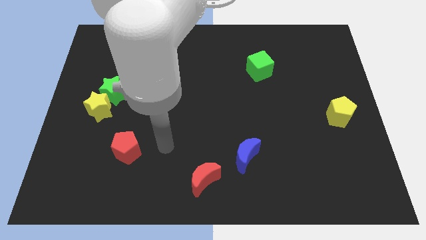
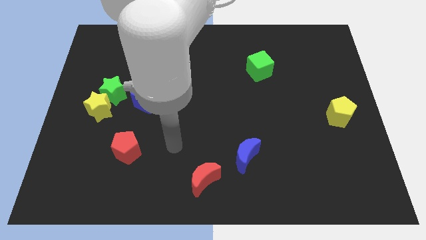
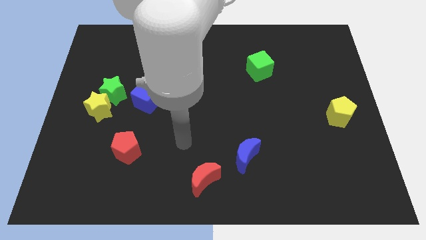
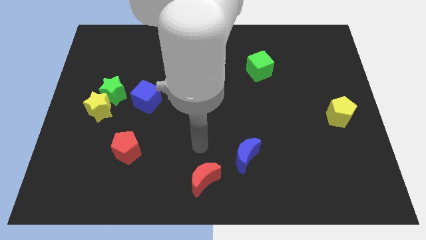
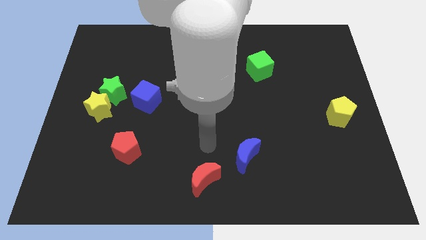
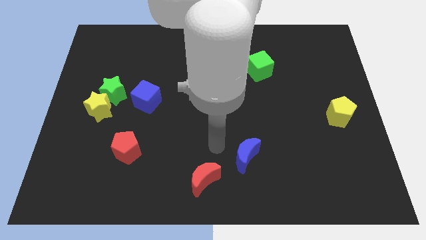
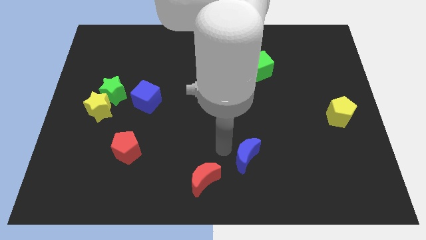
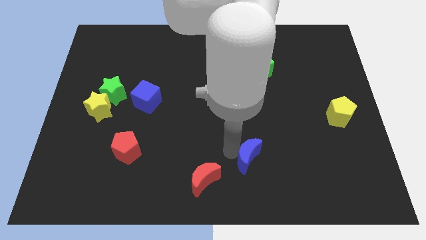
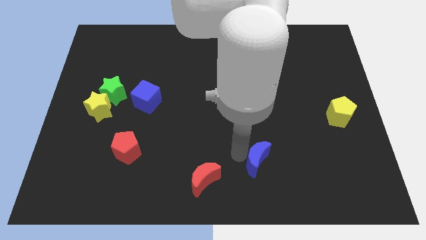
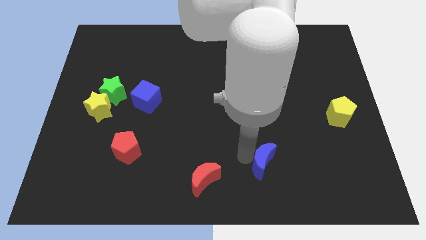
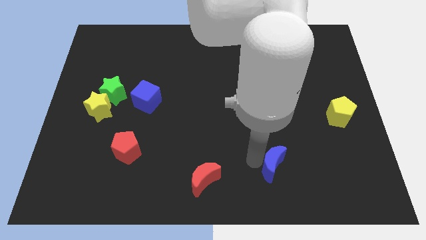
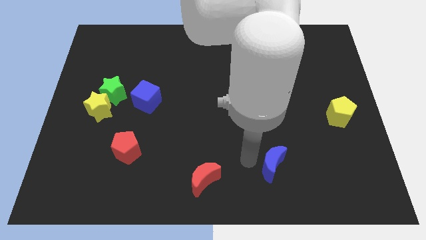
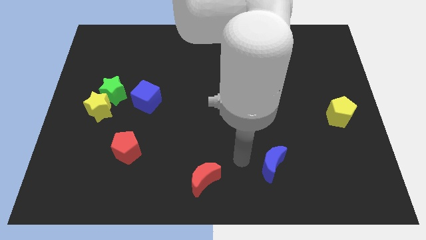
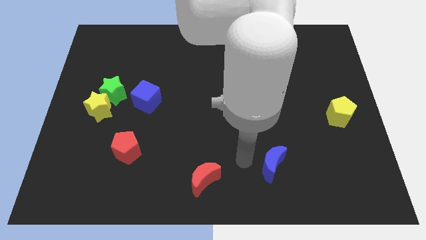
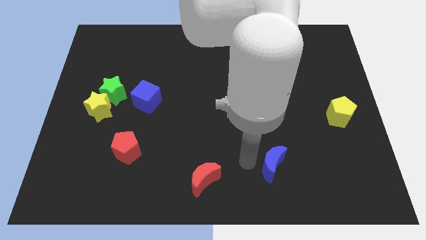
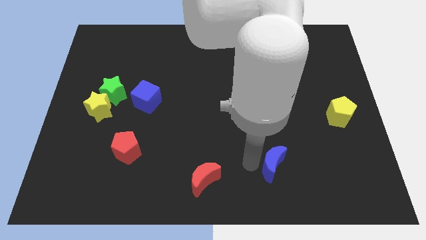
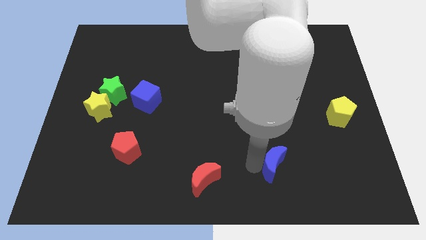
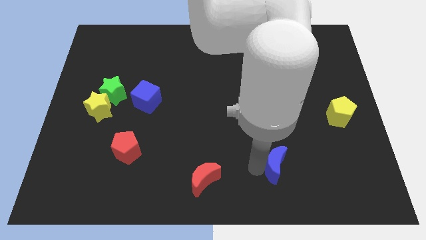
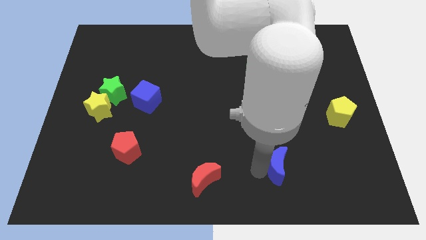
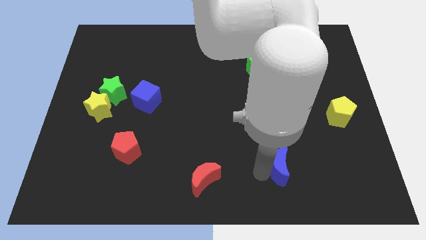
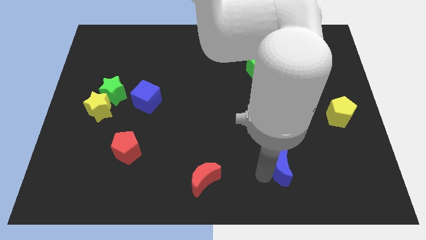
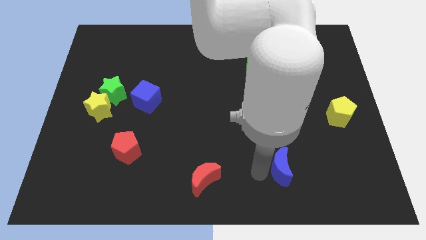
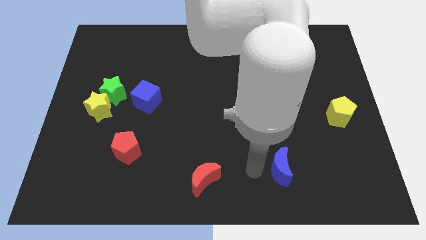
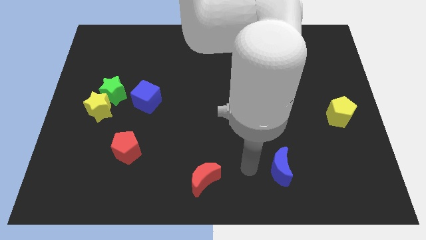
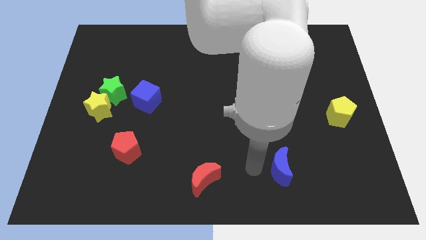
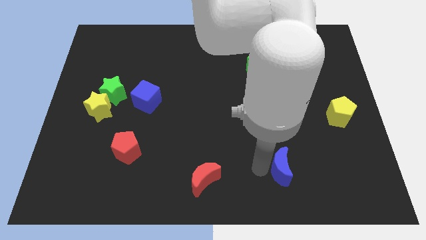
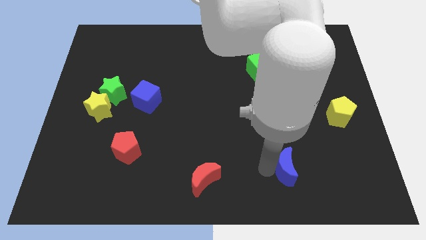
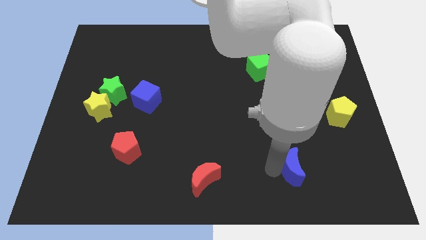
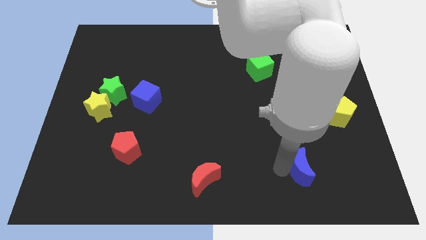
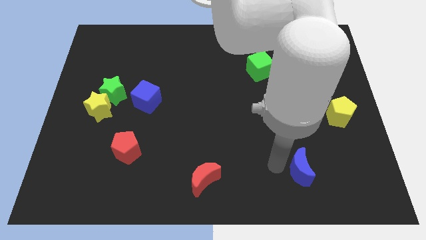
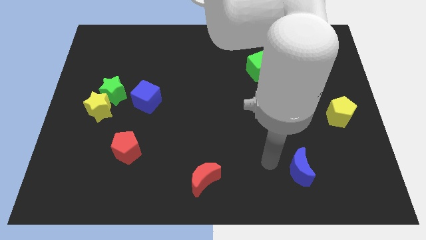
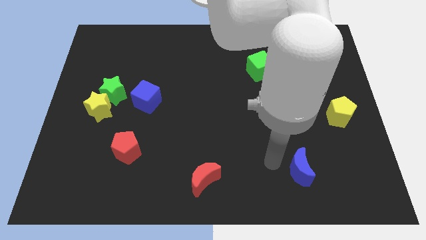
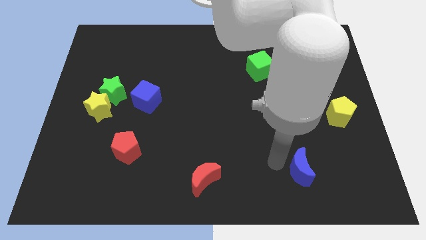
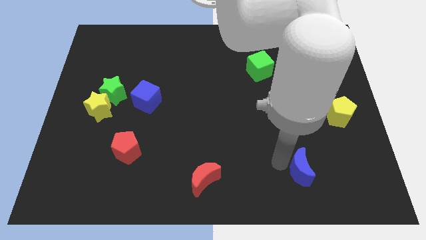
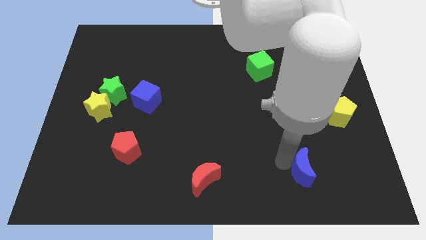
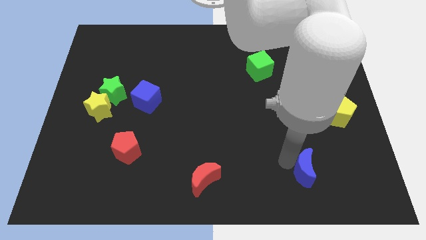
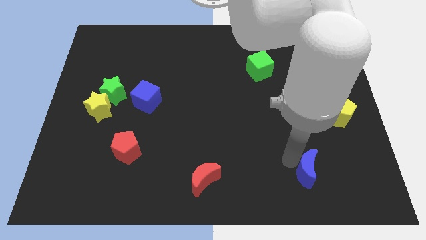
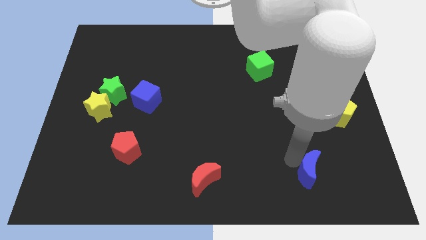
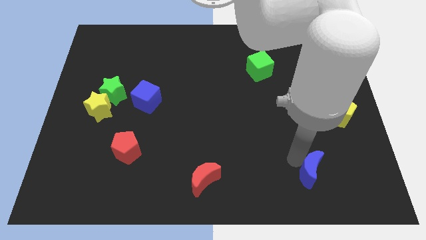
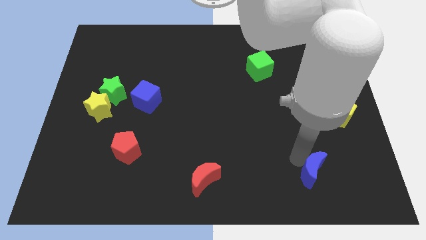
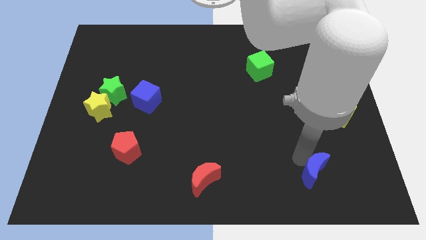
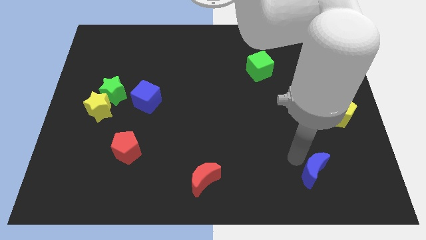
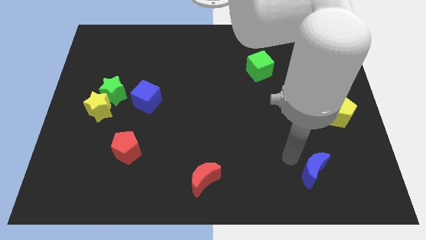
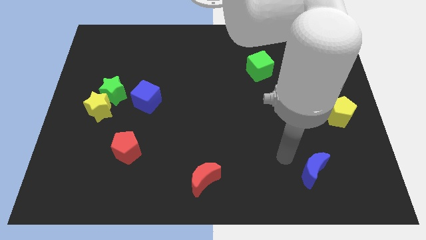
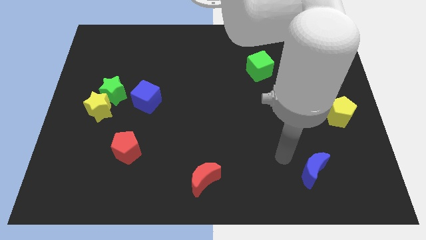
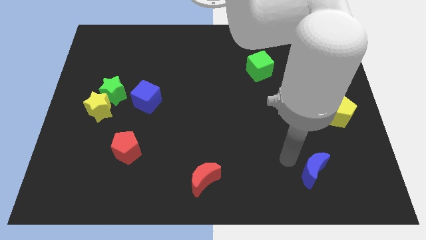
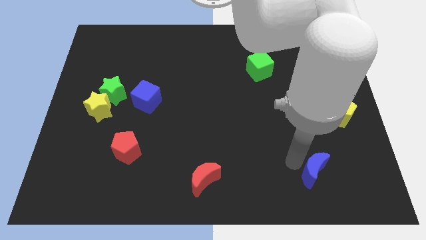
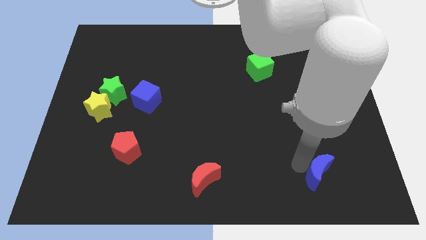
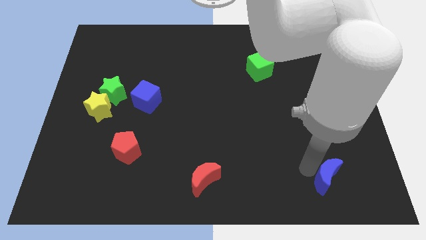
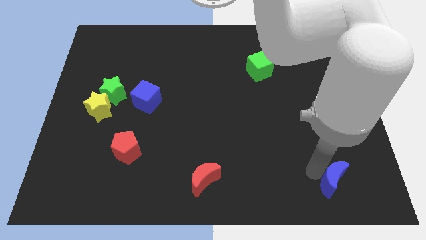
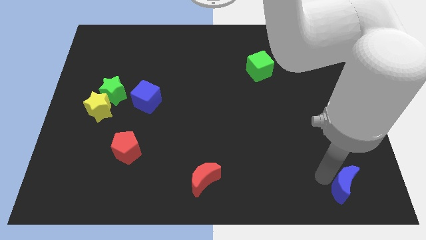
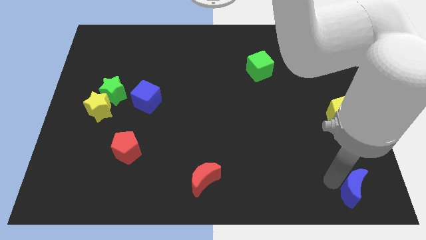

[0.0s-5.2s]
slide the blue moon to the bottom right corner

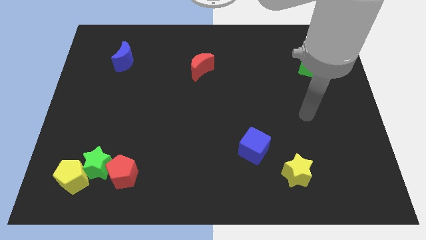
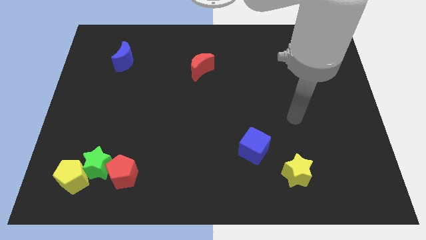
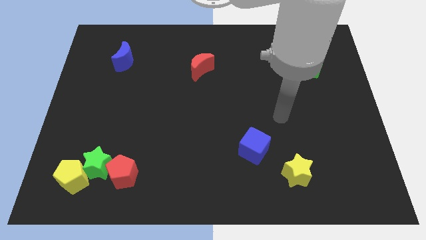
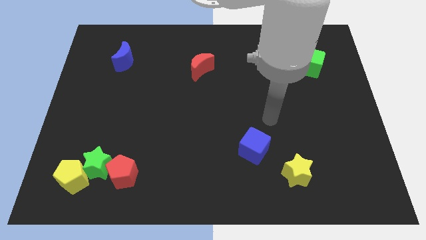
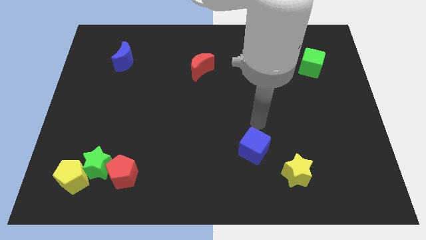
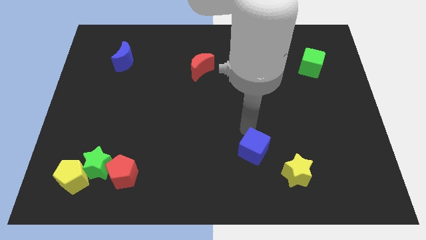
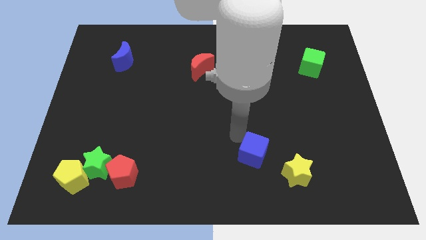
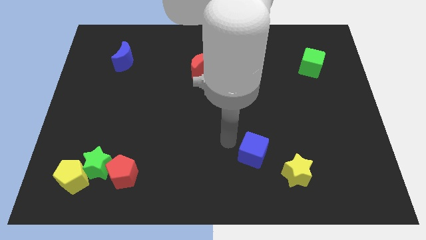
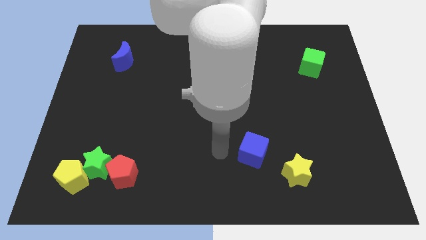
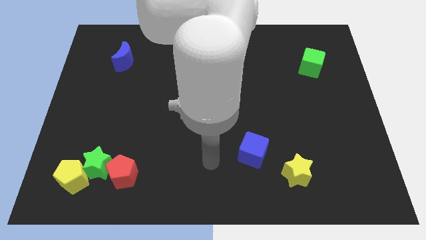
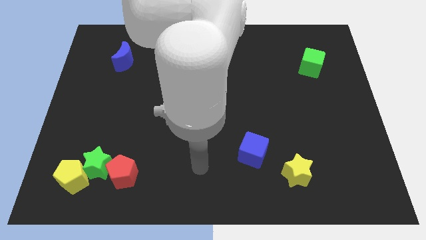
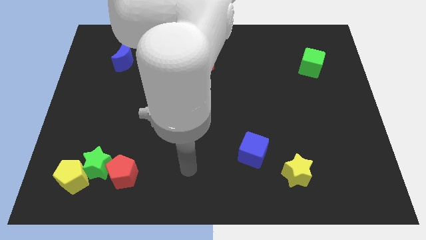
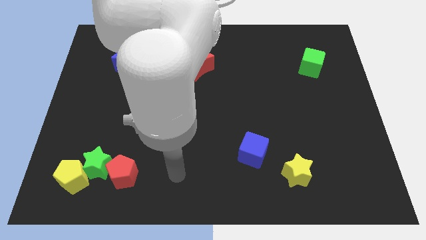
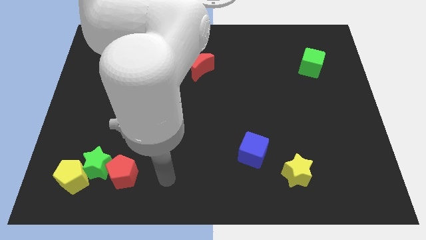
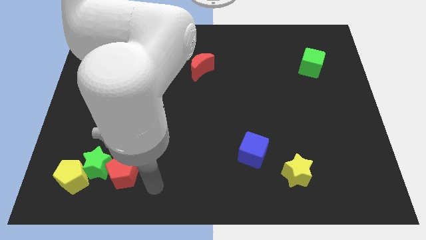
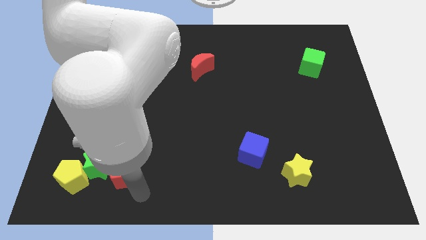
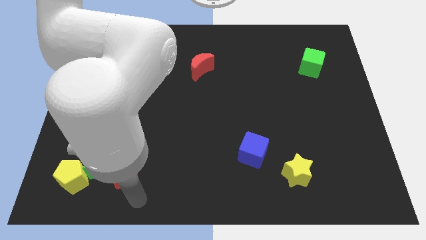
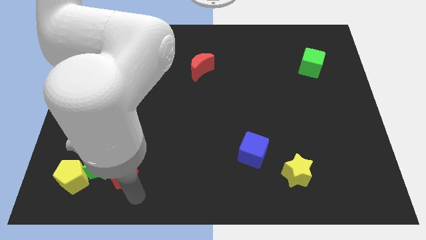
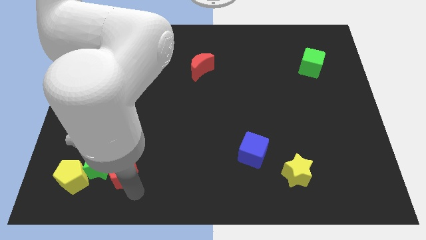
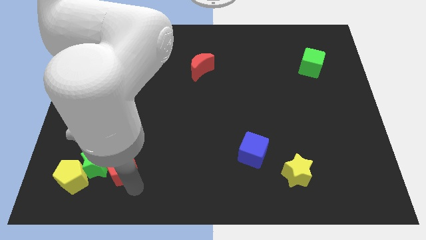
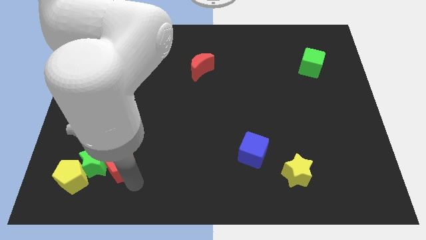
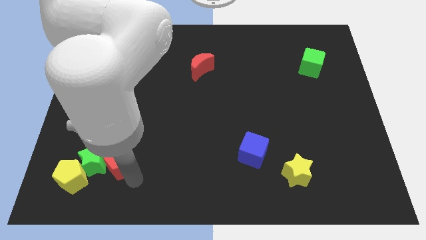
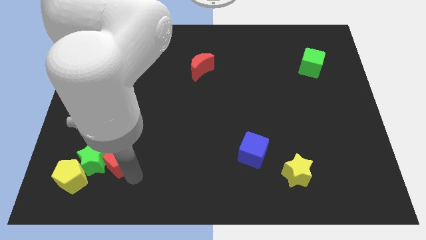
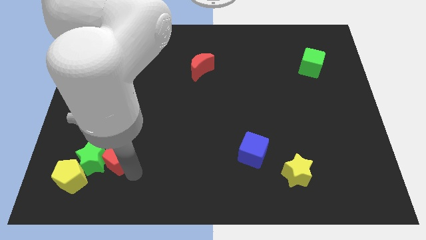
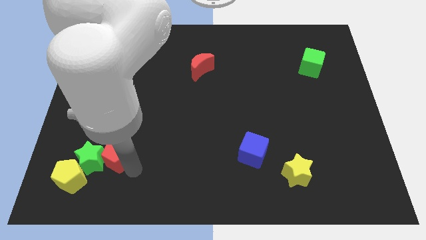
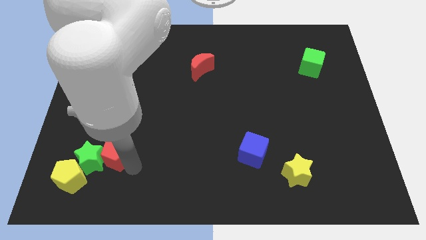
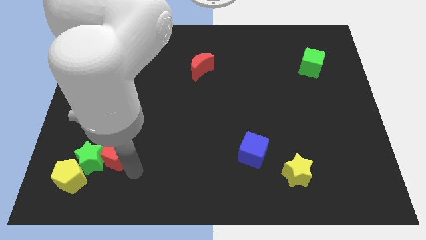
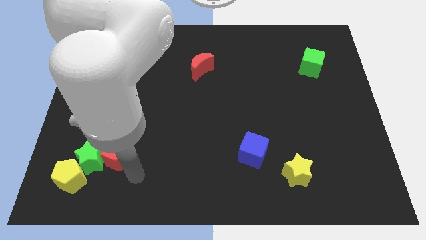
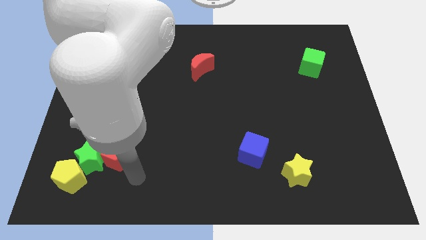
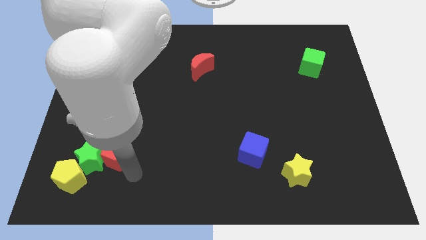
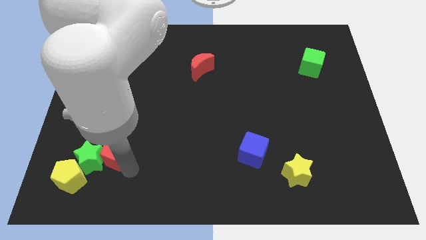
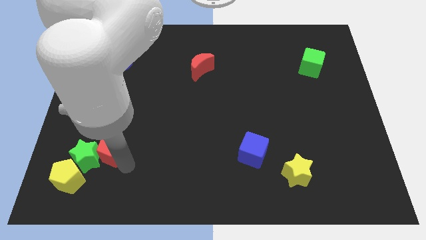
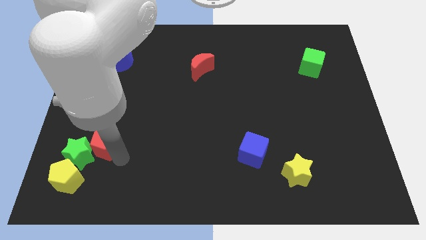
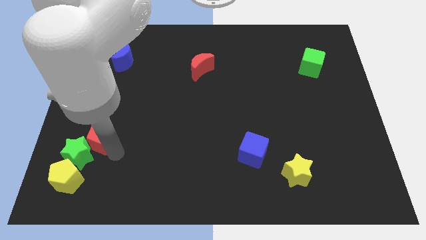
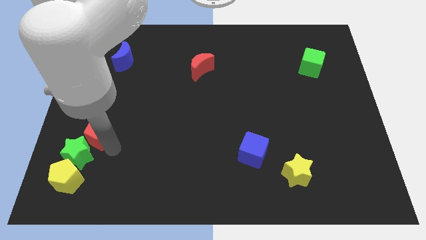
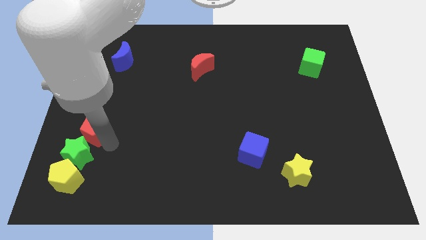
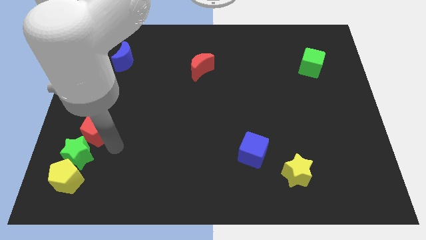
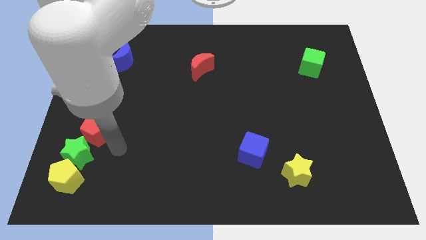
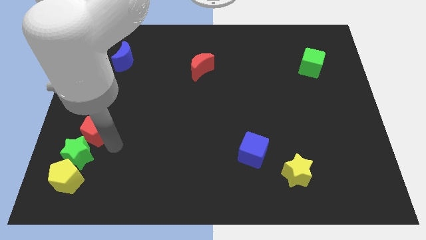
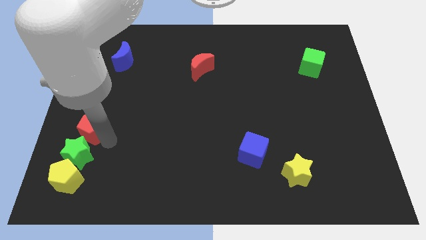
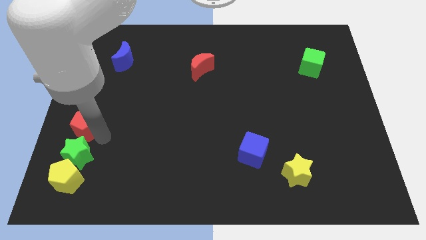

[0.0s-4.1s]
move the red pentagon to the center left
